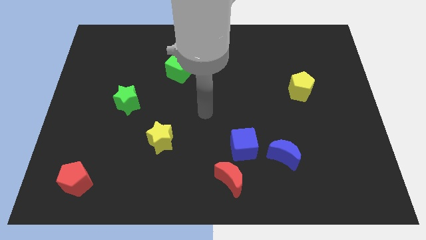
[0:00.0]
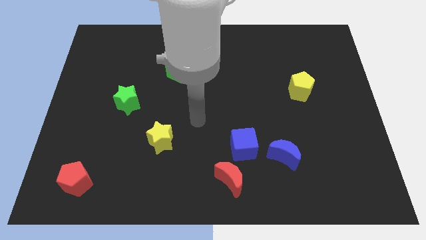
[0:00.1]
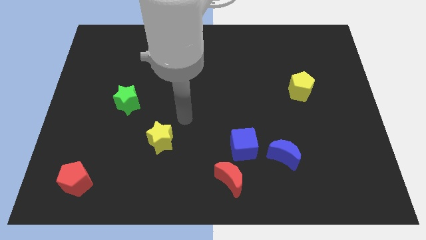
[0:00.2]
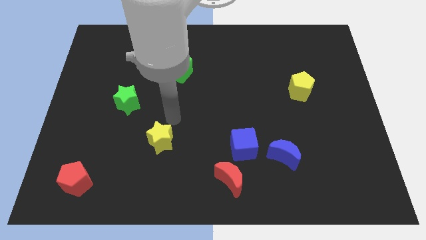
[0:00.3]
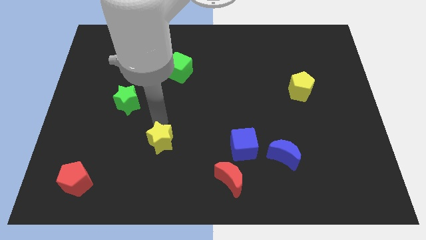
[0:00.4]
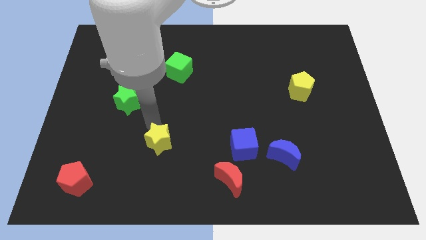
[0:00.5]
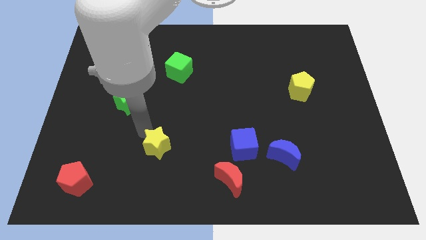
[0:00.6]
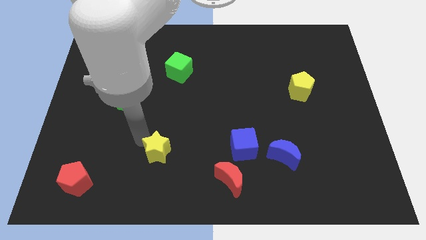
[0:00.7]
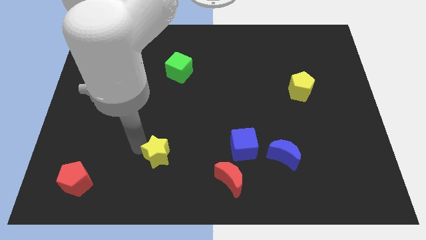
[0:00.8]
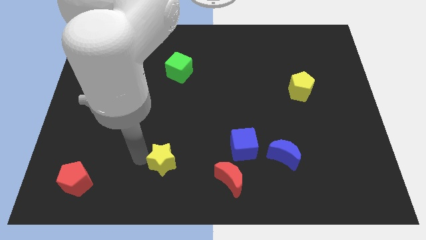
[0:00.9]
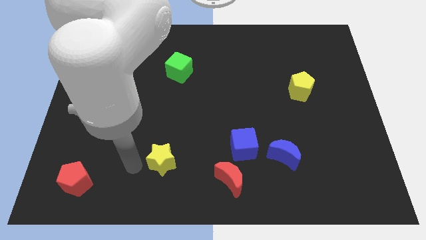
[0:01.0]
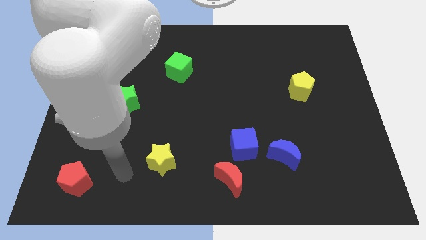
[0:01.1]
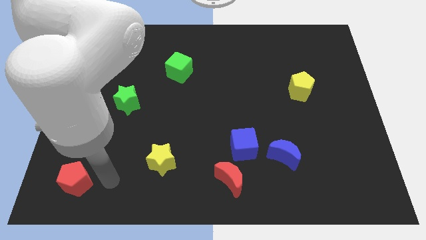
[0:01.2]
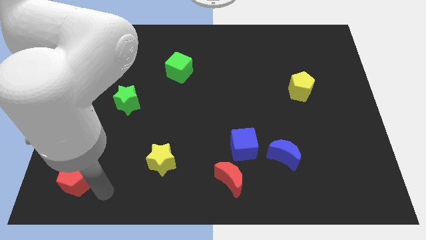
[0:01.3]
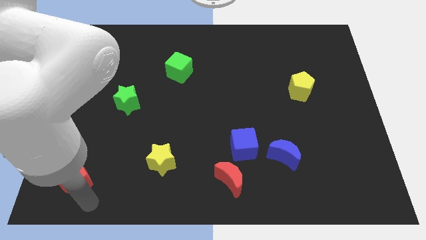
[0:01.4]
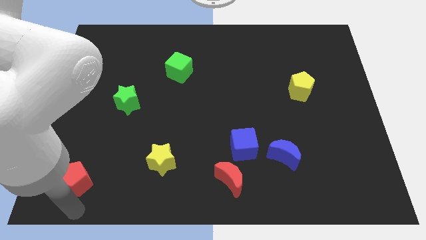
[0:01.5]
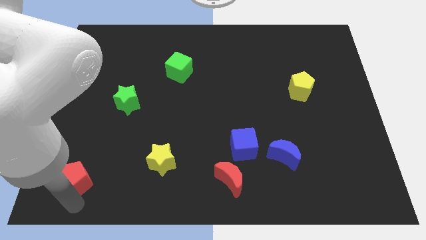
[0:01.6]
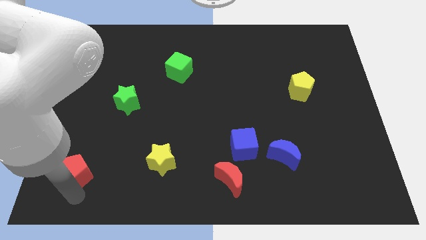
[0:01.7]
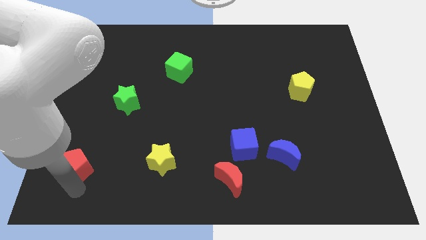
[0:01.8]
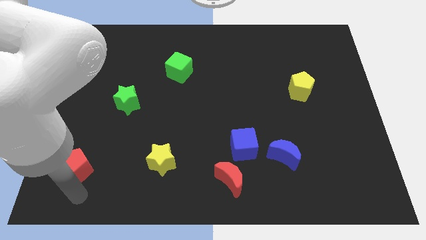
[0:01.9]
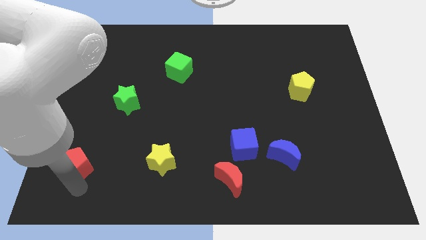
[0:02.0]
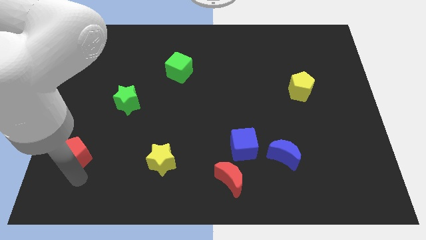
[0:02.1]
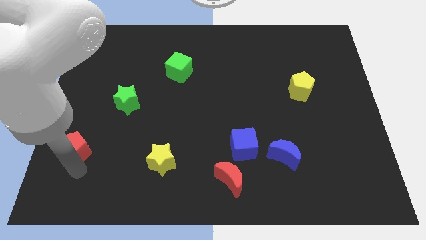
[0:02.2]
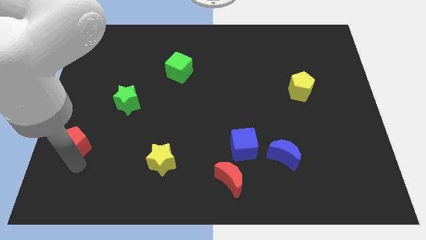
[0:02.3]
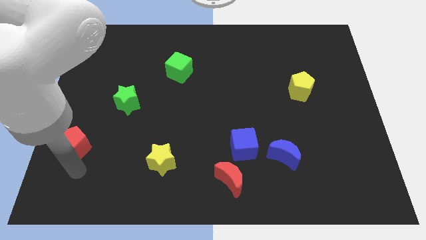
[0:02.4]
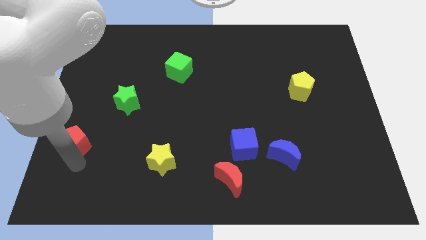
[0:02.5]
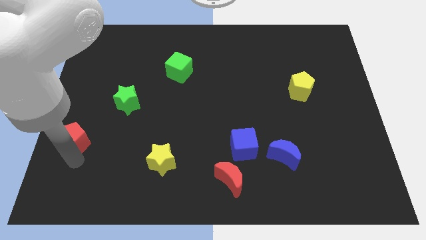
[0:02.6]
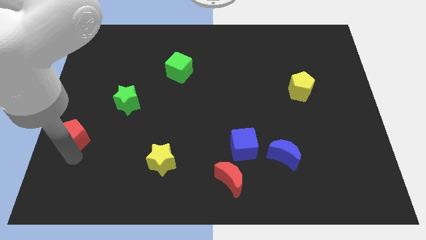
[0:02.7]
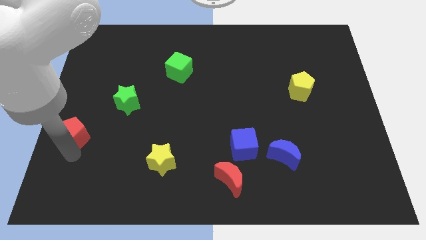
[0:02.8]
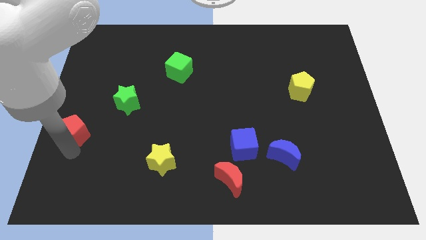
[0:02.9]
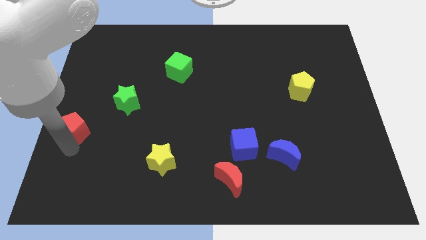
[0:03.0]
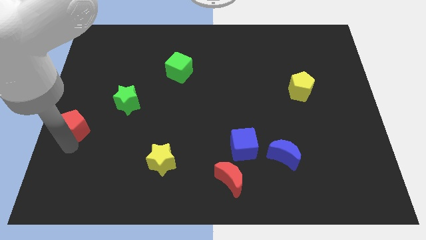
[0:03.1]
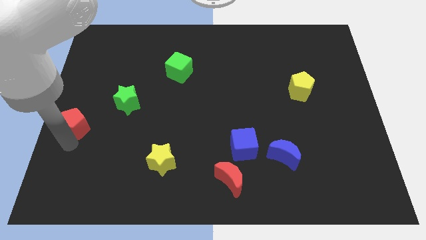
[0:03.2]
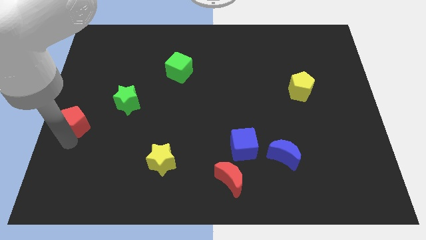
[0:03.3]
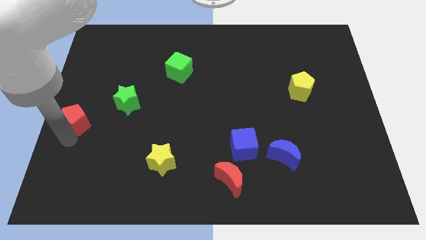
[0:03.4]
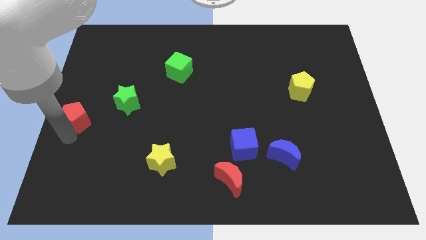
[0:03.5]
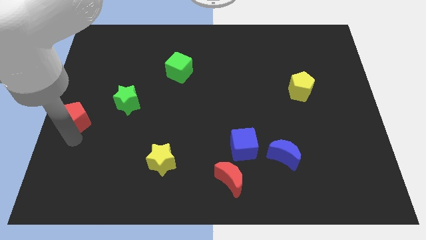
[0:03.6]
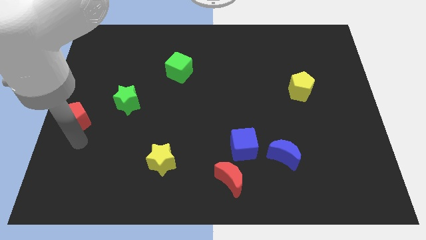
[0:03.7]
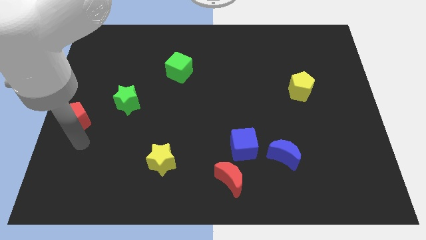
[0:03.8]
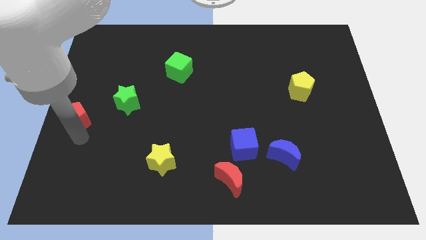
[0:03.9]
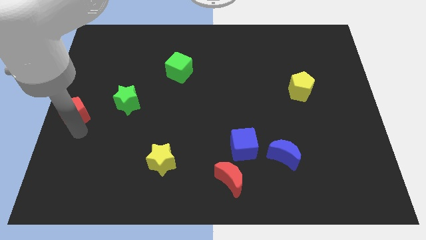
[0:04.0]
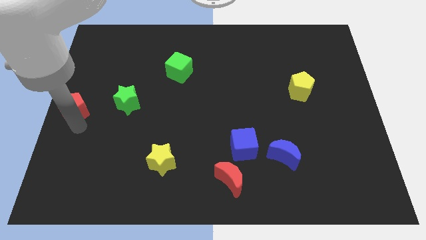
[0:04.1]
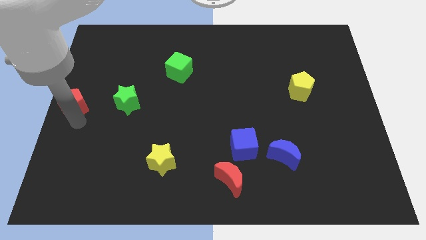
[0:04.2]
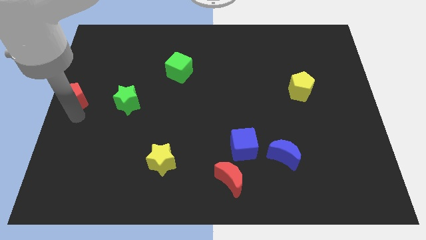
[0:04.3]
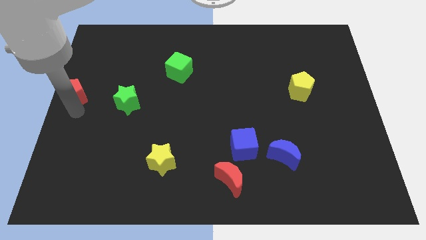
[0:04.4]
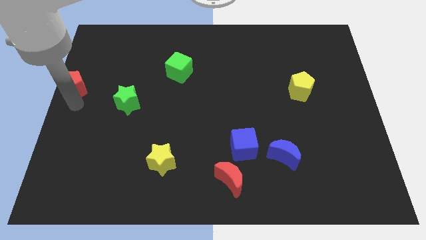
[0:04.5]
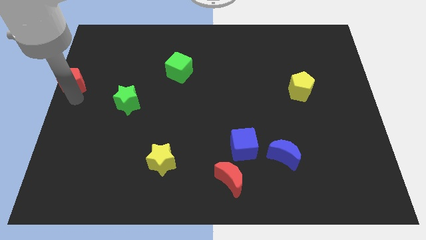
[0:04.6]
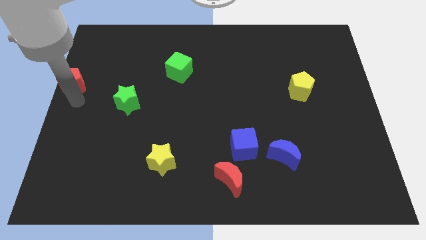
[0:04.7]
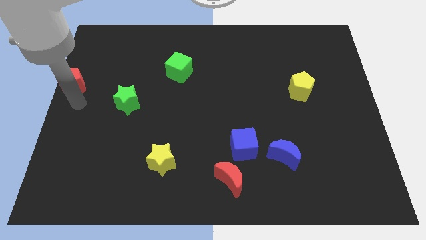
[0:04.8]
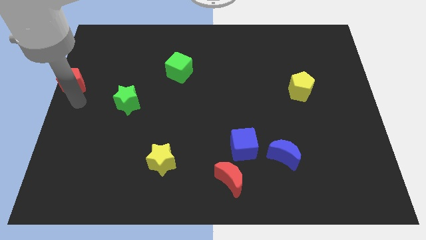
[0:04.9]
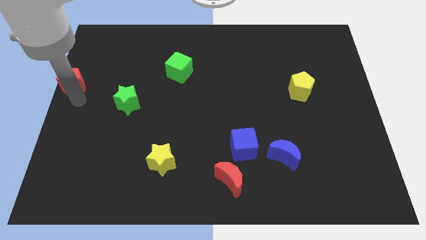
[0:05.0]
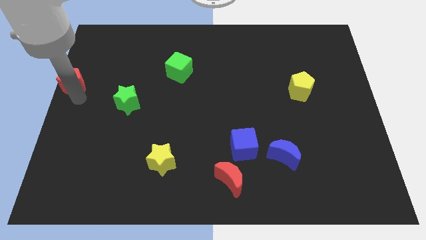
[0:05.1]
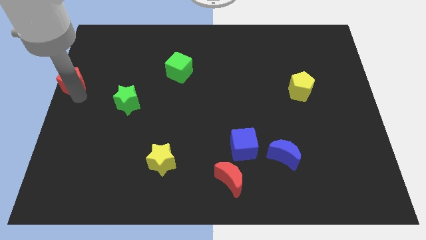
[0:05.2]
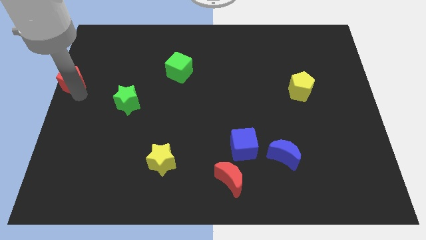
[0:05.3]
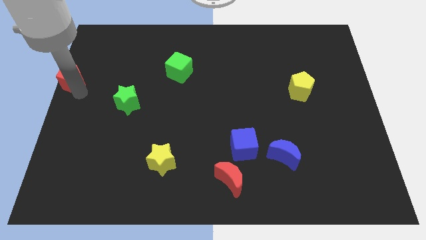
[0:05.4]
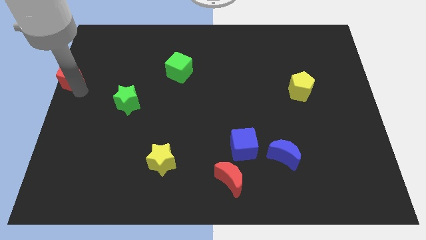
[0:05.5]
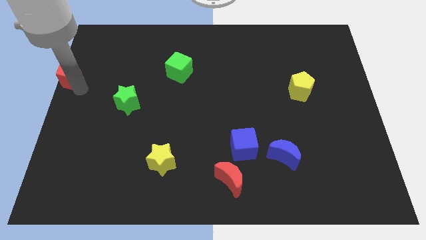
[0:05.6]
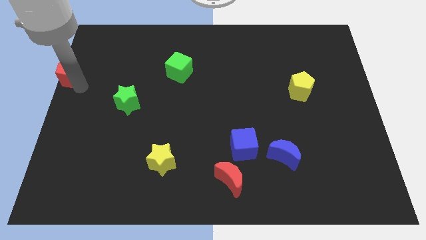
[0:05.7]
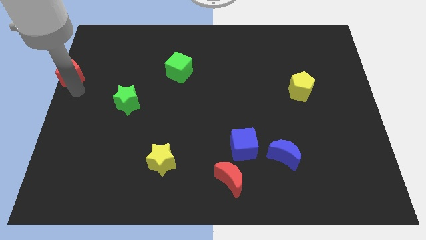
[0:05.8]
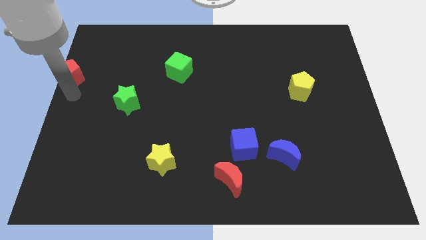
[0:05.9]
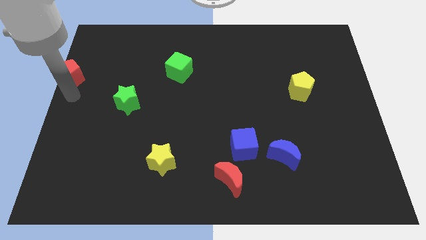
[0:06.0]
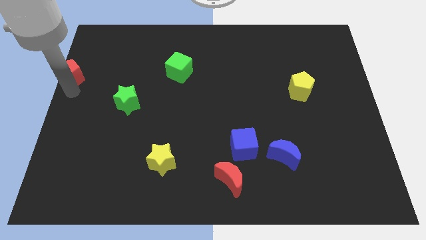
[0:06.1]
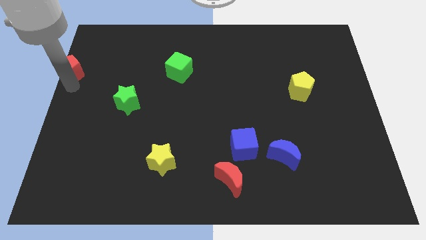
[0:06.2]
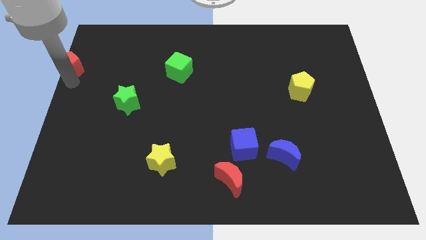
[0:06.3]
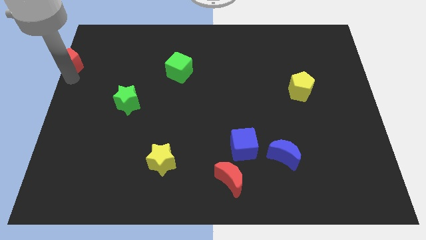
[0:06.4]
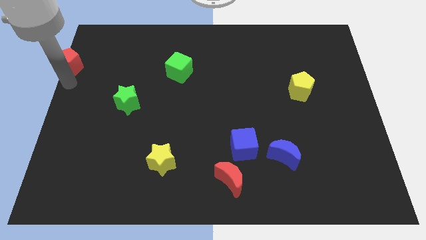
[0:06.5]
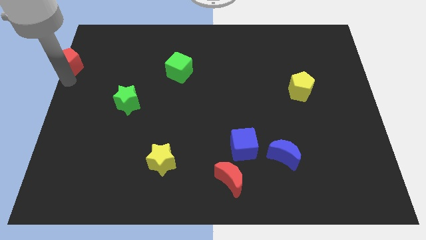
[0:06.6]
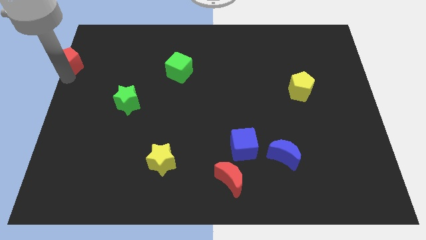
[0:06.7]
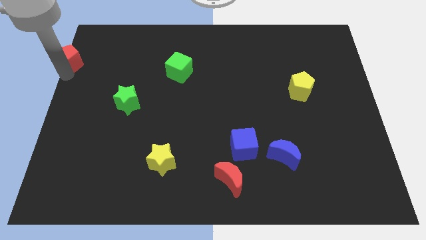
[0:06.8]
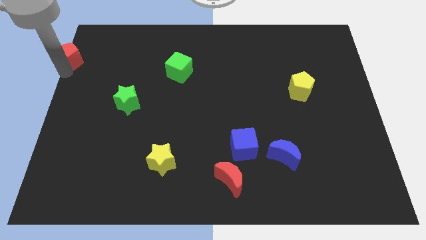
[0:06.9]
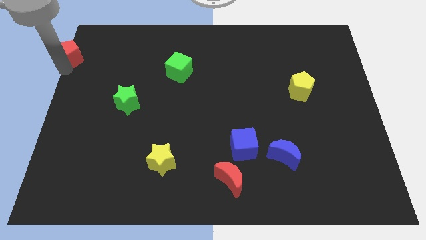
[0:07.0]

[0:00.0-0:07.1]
move the red pentagon to the top left
